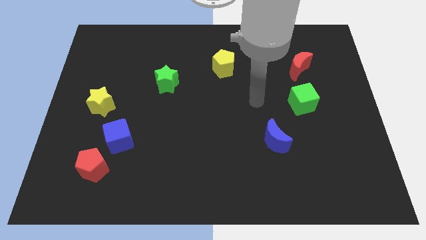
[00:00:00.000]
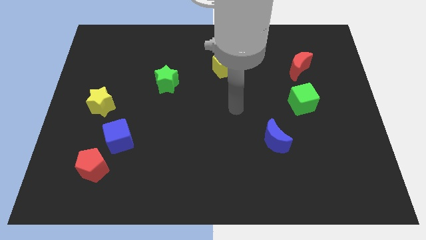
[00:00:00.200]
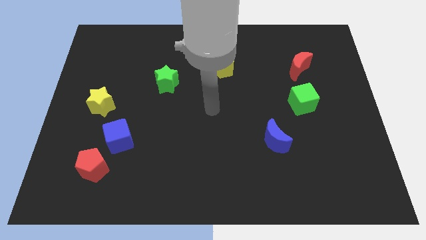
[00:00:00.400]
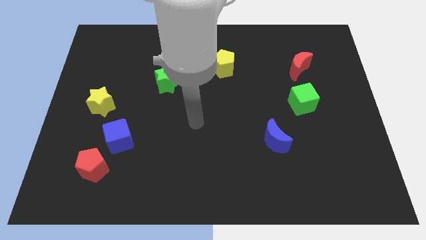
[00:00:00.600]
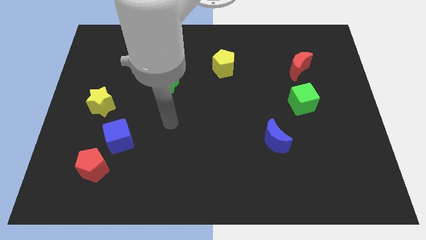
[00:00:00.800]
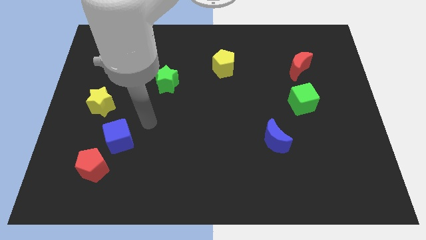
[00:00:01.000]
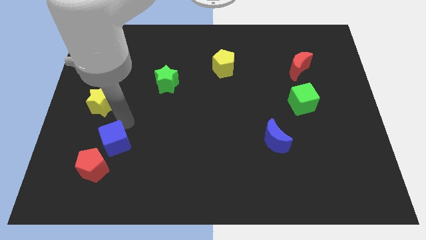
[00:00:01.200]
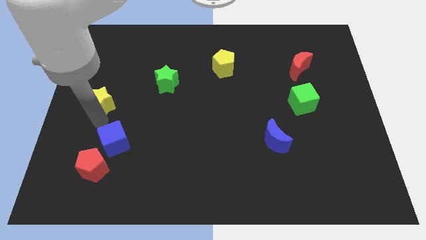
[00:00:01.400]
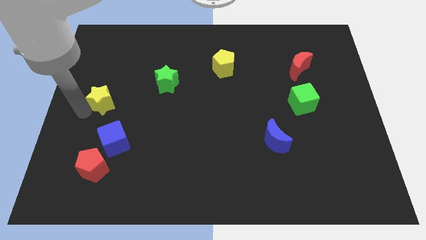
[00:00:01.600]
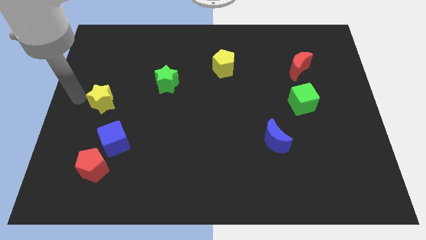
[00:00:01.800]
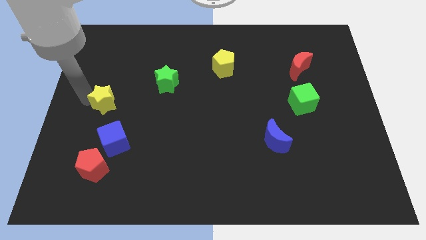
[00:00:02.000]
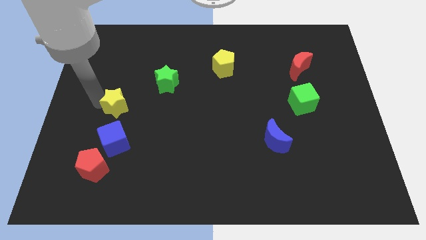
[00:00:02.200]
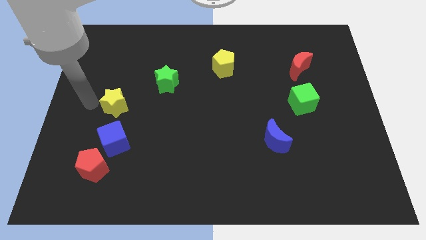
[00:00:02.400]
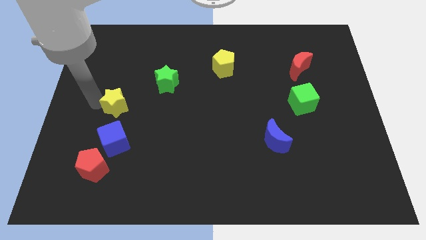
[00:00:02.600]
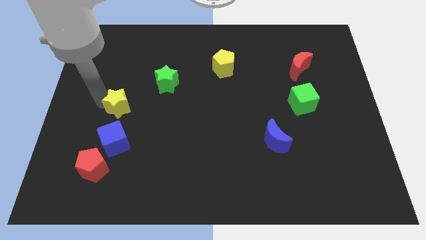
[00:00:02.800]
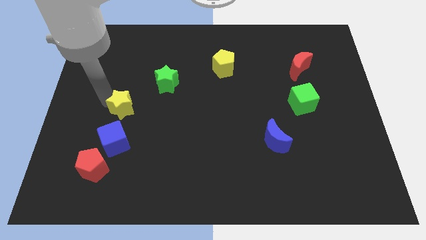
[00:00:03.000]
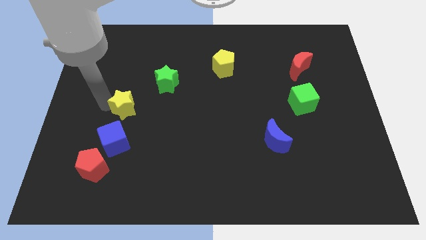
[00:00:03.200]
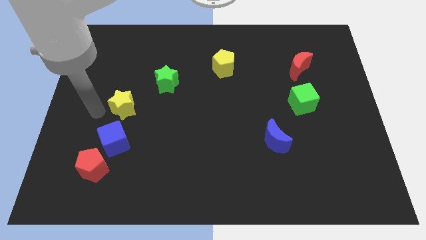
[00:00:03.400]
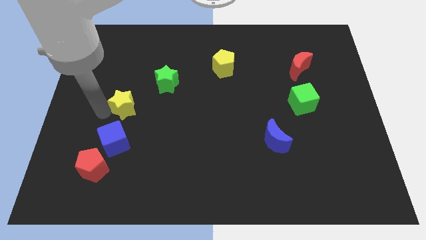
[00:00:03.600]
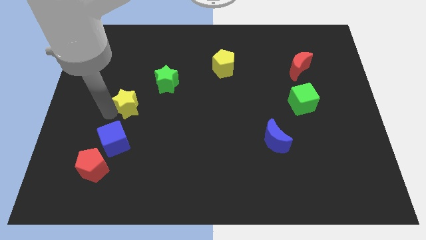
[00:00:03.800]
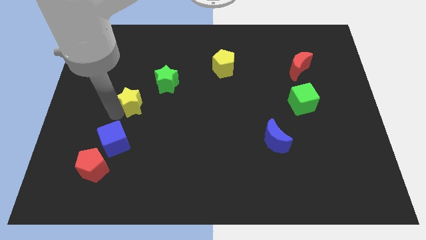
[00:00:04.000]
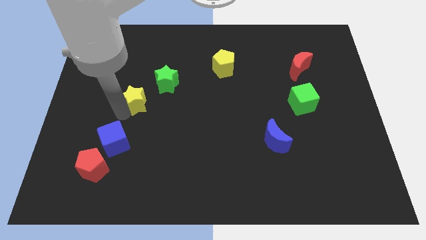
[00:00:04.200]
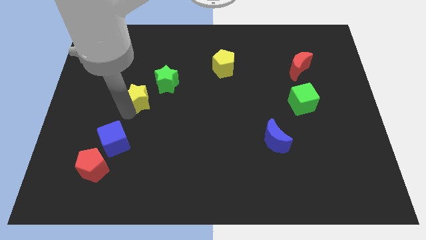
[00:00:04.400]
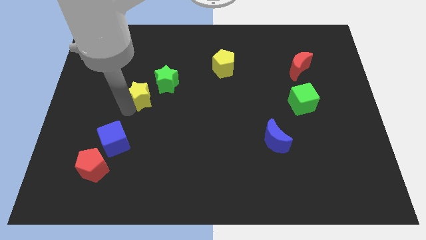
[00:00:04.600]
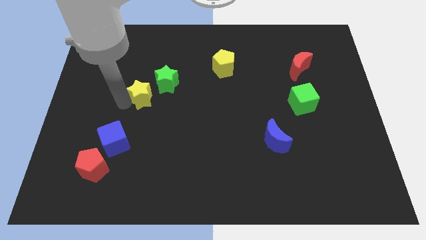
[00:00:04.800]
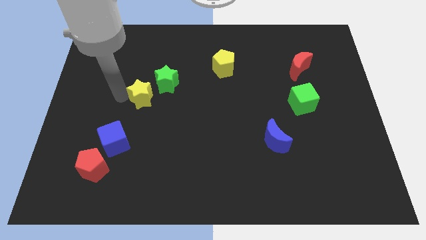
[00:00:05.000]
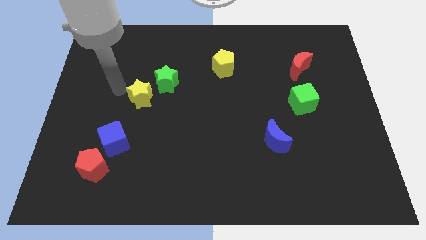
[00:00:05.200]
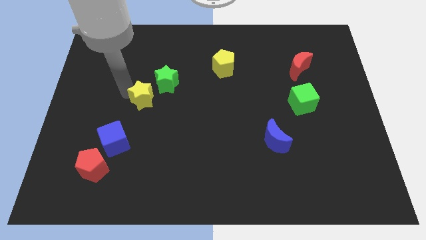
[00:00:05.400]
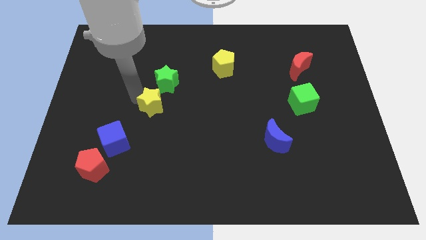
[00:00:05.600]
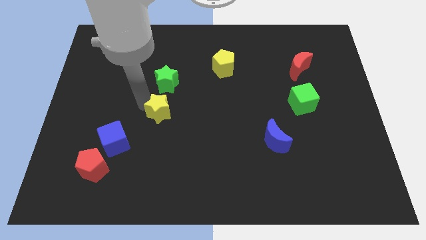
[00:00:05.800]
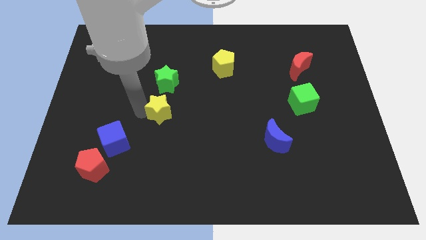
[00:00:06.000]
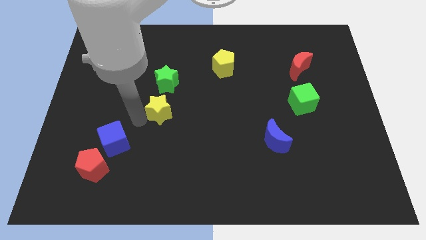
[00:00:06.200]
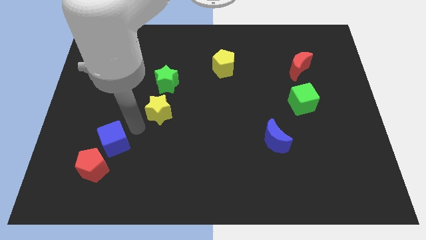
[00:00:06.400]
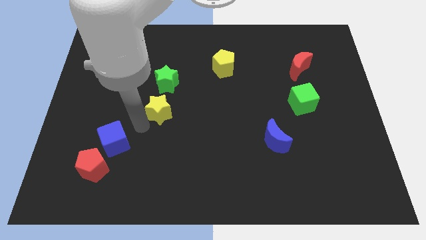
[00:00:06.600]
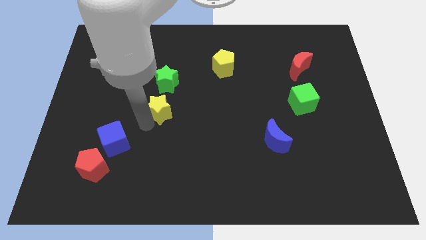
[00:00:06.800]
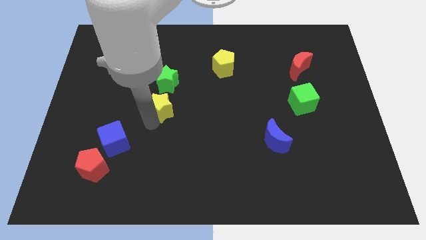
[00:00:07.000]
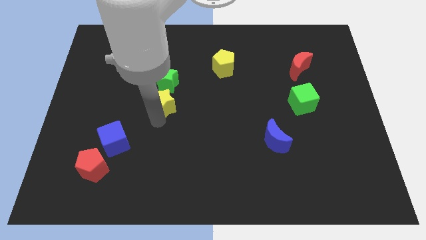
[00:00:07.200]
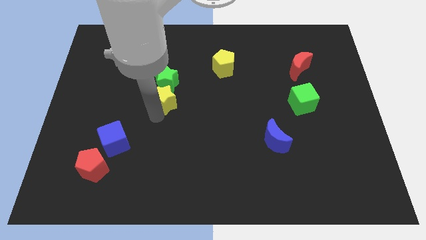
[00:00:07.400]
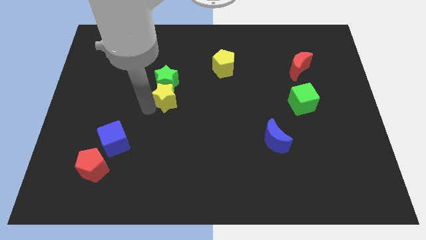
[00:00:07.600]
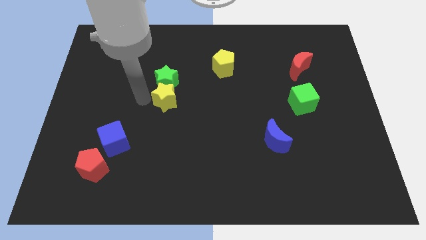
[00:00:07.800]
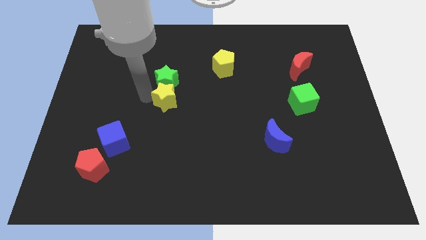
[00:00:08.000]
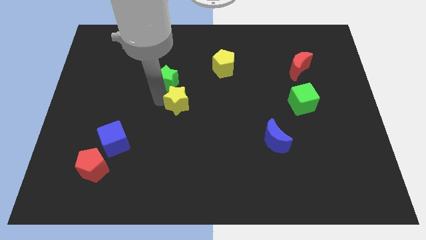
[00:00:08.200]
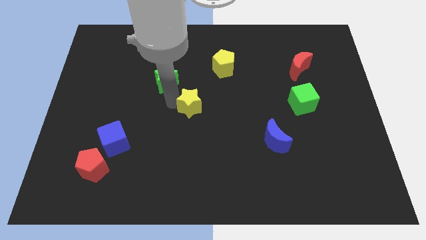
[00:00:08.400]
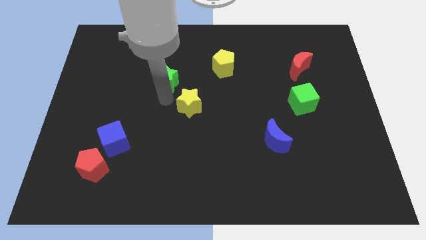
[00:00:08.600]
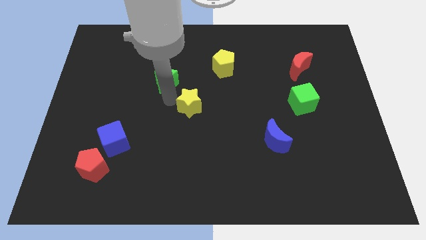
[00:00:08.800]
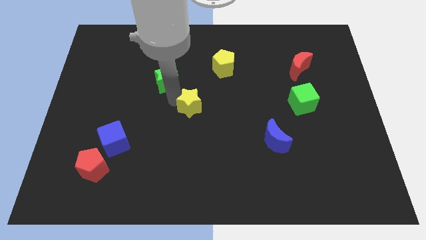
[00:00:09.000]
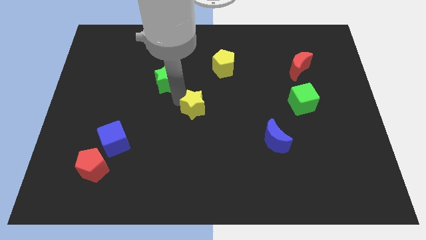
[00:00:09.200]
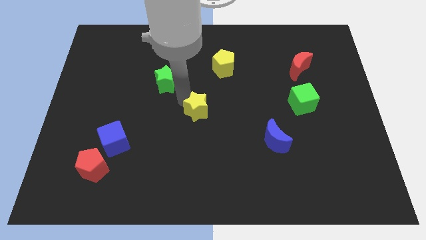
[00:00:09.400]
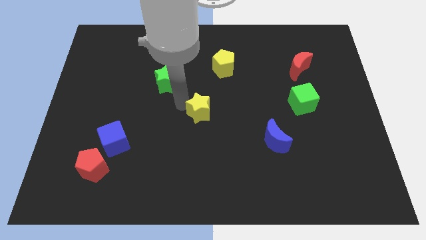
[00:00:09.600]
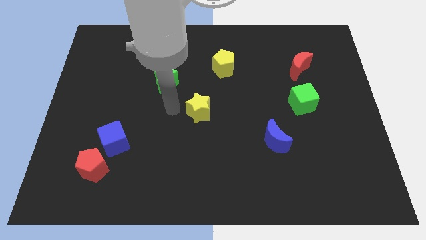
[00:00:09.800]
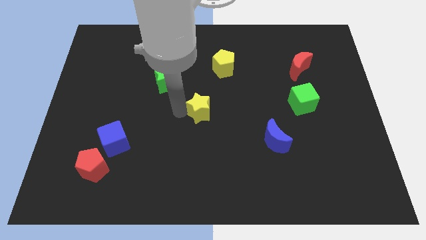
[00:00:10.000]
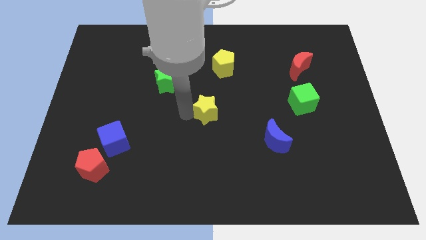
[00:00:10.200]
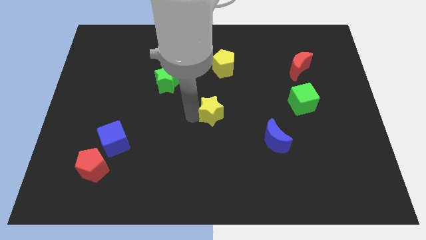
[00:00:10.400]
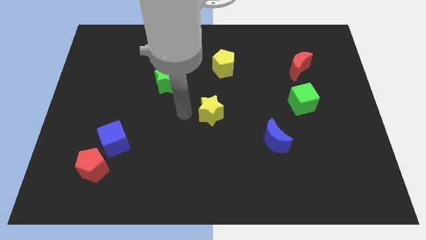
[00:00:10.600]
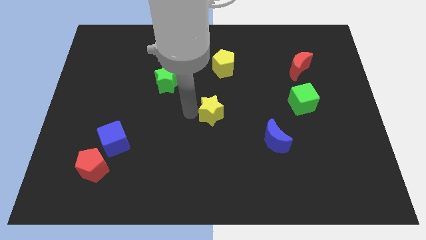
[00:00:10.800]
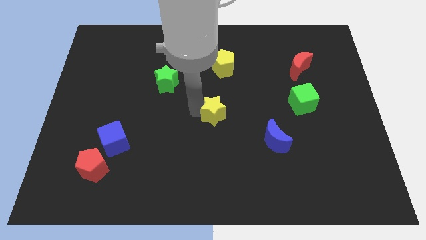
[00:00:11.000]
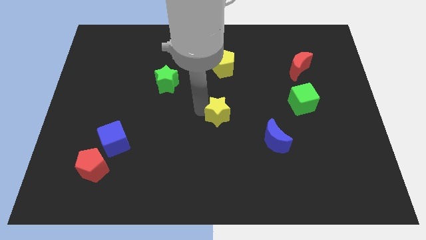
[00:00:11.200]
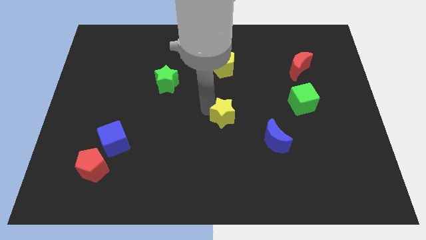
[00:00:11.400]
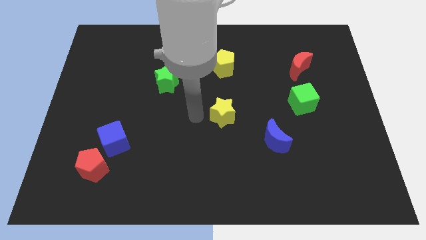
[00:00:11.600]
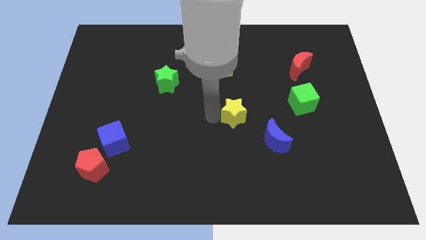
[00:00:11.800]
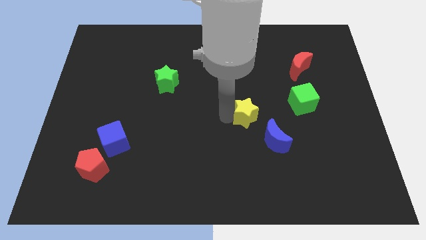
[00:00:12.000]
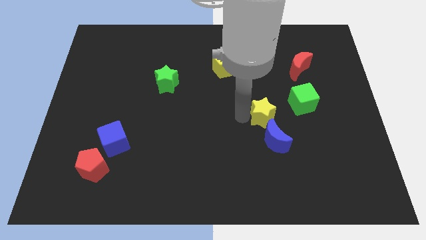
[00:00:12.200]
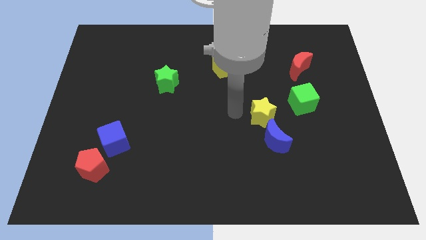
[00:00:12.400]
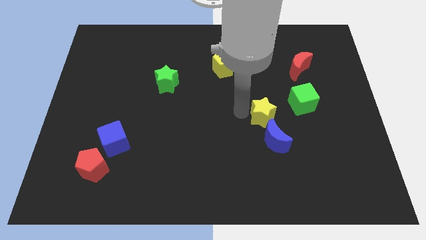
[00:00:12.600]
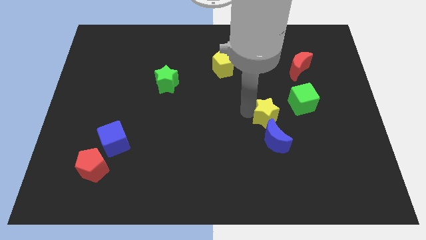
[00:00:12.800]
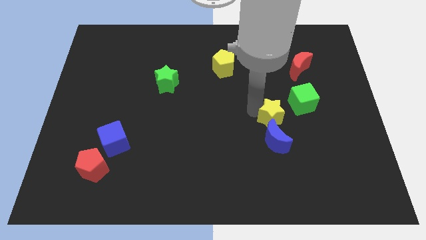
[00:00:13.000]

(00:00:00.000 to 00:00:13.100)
push the yellow star to the top right side of the blue moon

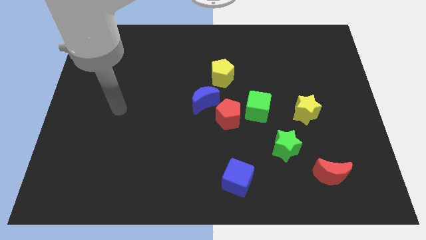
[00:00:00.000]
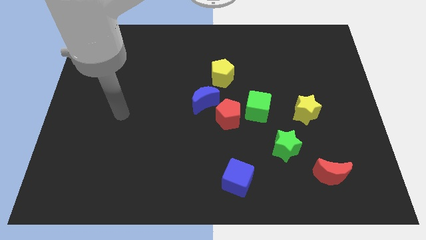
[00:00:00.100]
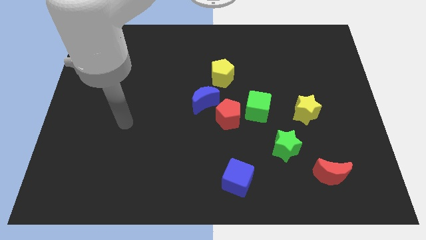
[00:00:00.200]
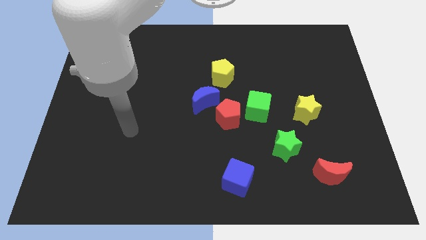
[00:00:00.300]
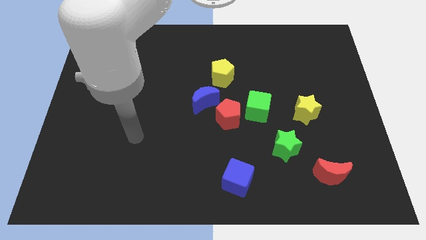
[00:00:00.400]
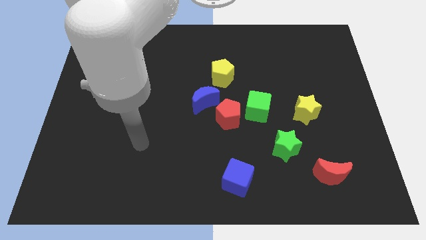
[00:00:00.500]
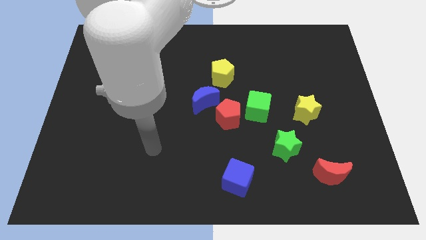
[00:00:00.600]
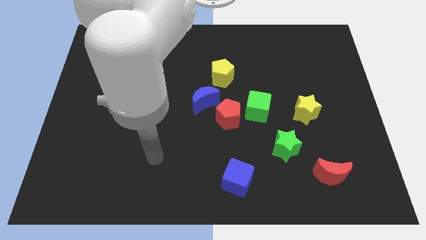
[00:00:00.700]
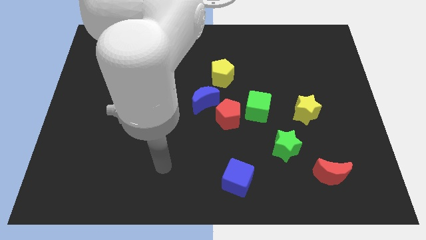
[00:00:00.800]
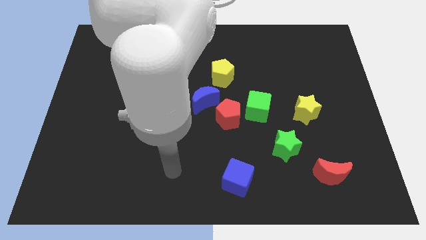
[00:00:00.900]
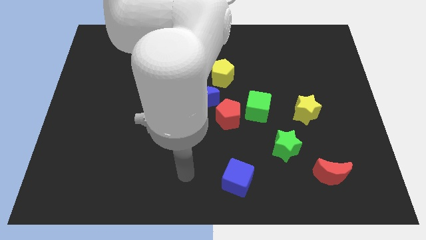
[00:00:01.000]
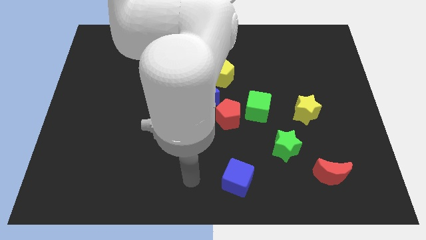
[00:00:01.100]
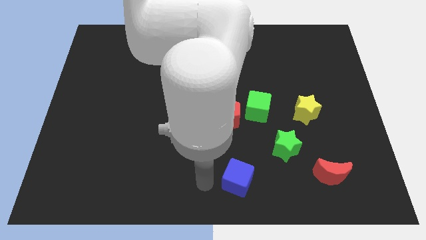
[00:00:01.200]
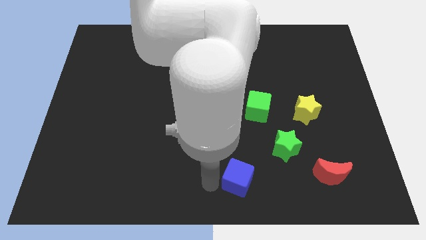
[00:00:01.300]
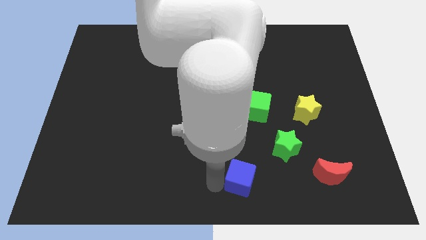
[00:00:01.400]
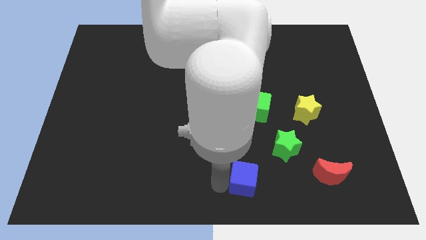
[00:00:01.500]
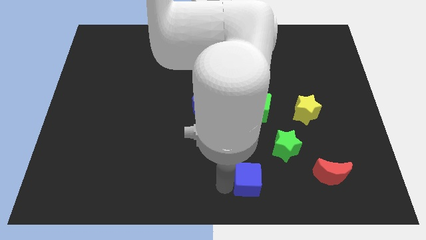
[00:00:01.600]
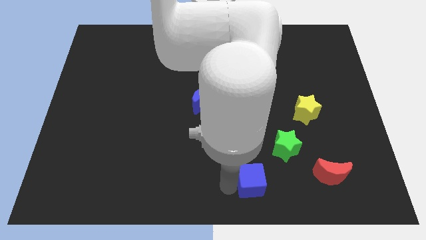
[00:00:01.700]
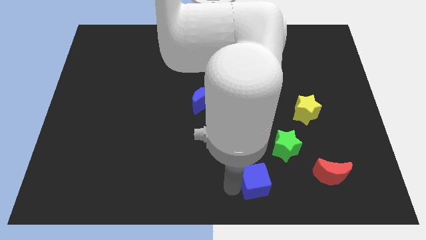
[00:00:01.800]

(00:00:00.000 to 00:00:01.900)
move the blue cube just left of the red moon
